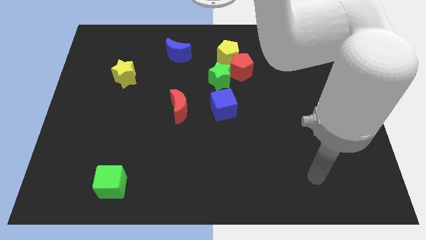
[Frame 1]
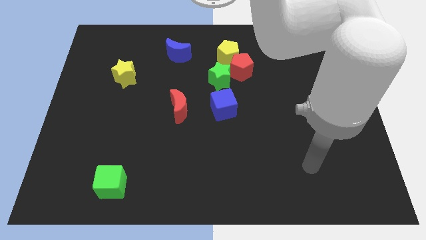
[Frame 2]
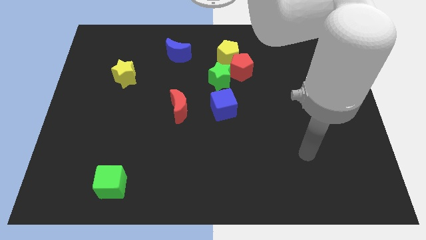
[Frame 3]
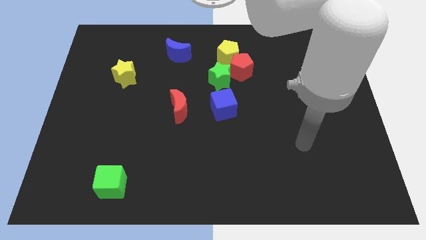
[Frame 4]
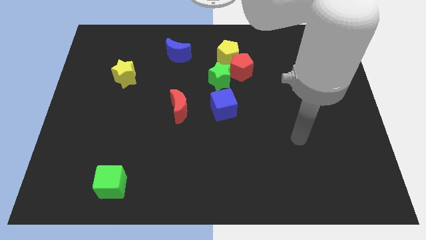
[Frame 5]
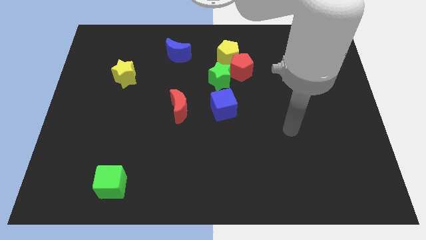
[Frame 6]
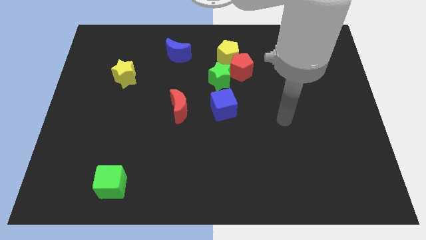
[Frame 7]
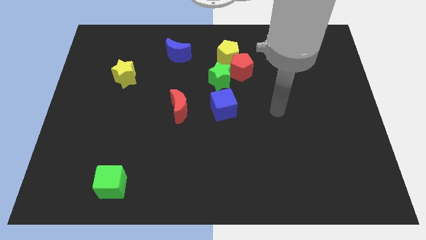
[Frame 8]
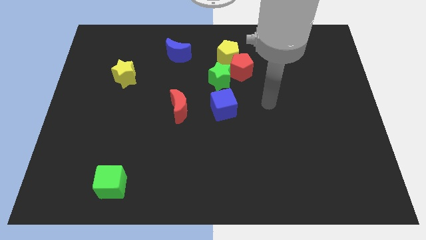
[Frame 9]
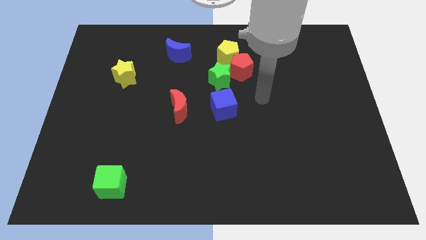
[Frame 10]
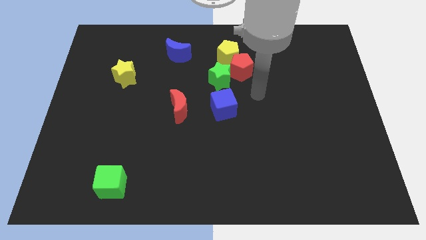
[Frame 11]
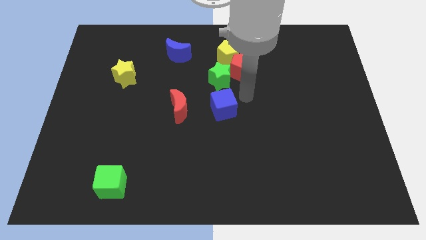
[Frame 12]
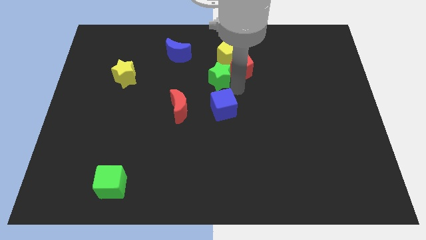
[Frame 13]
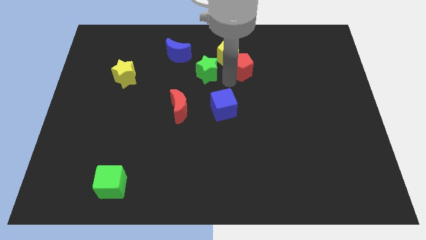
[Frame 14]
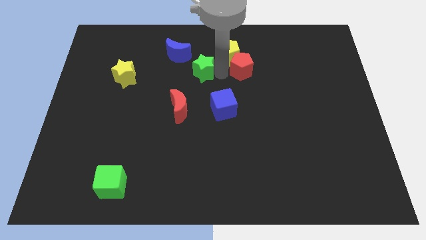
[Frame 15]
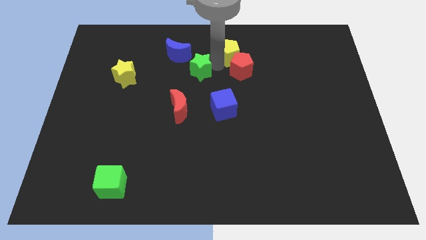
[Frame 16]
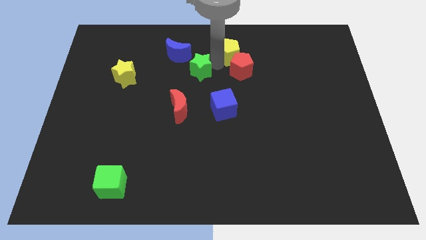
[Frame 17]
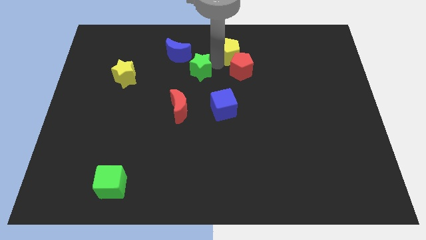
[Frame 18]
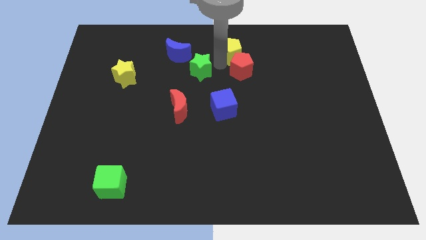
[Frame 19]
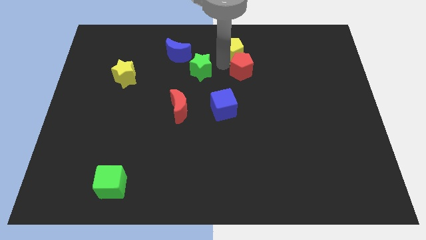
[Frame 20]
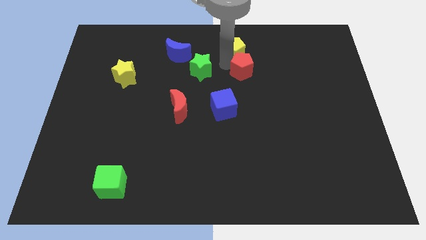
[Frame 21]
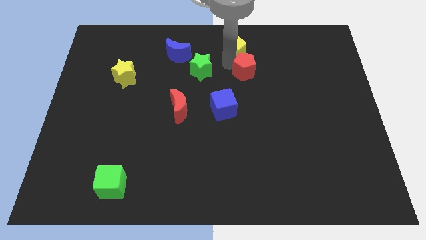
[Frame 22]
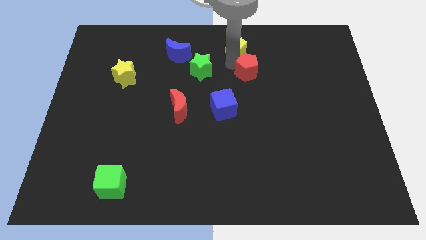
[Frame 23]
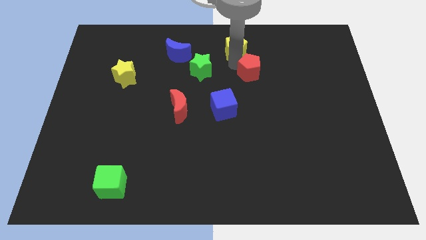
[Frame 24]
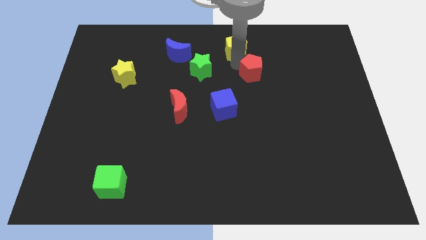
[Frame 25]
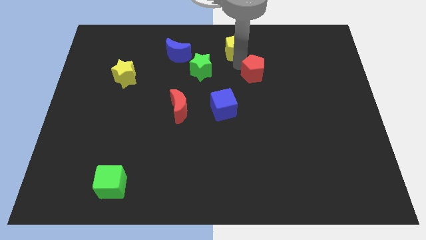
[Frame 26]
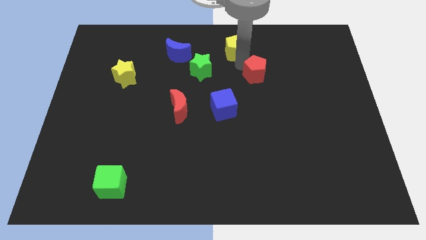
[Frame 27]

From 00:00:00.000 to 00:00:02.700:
move the red pentagon away from the yellow pentagon and green star

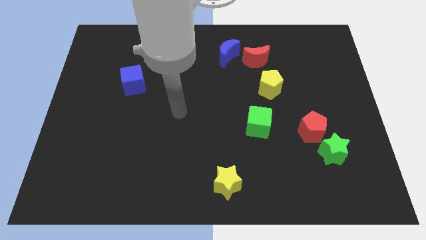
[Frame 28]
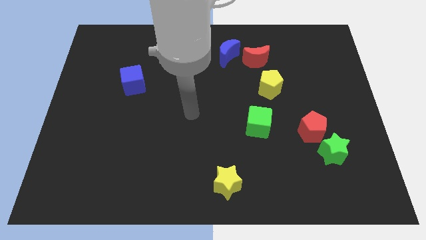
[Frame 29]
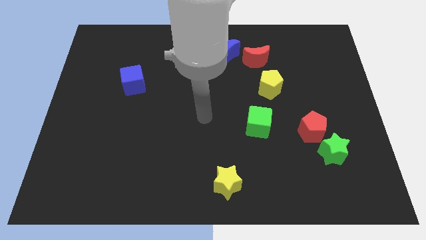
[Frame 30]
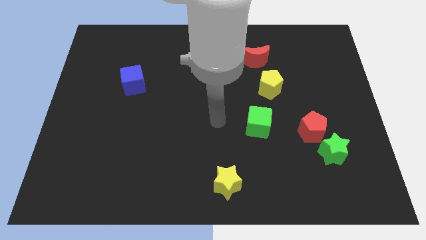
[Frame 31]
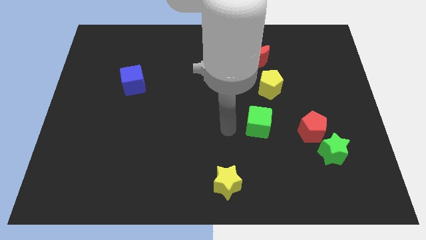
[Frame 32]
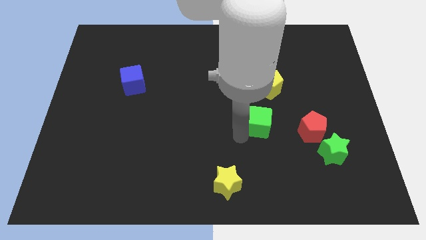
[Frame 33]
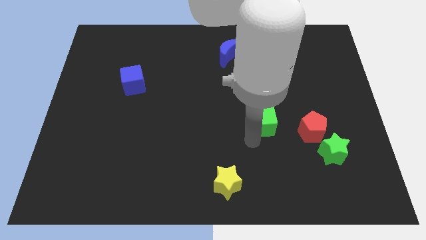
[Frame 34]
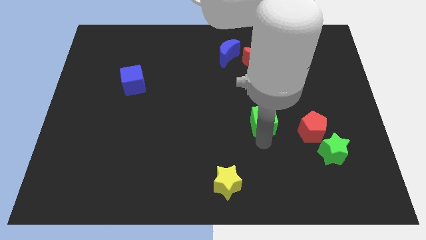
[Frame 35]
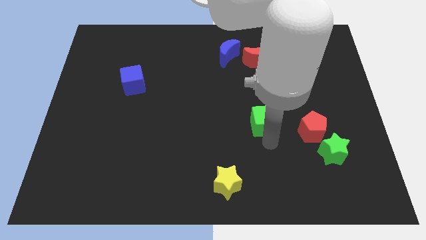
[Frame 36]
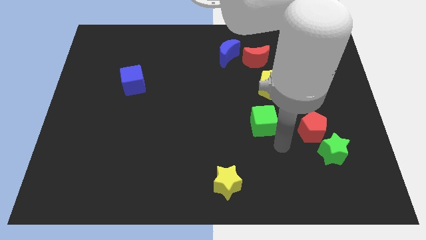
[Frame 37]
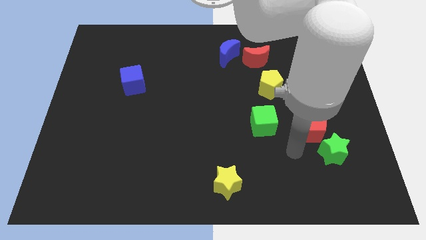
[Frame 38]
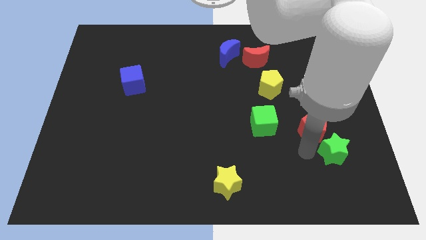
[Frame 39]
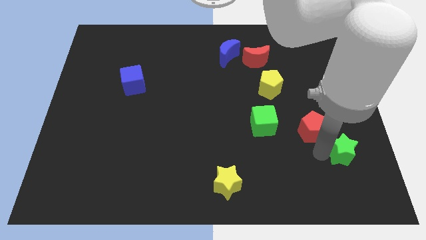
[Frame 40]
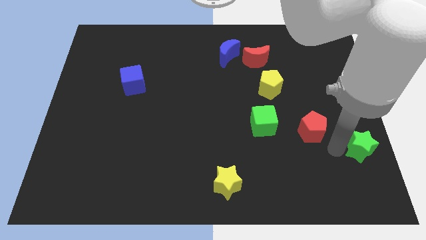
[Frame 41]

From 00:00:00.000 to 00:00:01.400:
move the red pentagon away from the green star

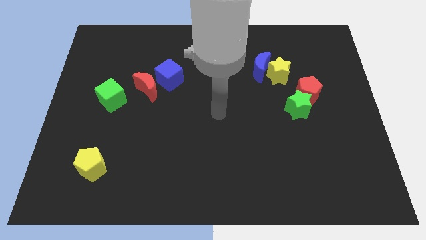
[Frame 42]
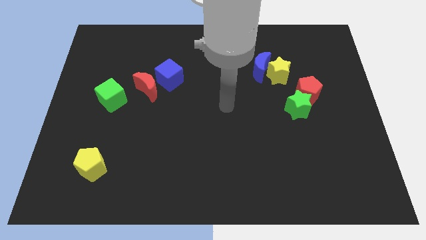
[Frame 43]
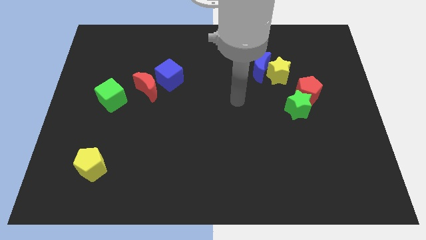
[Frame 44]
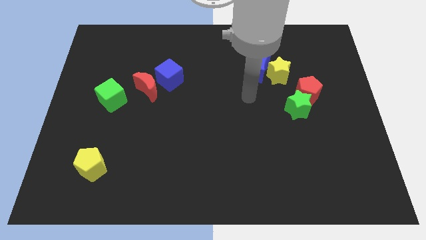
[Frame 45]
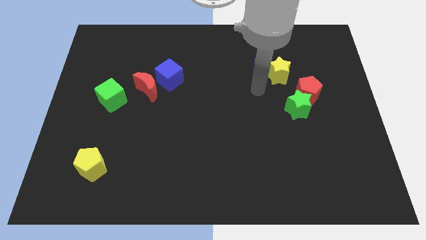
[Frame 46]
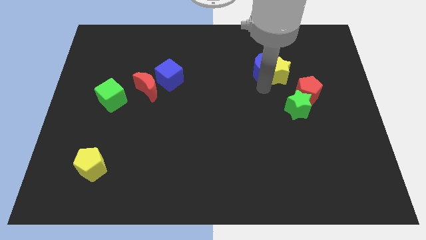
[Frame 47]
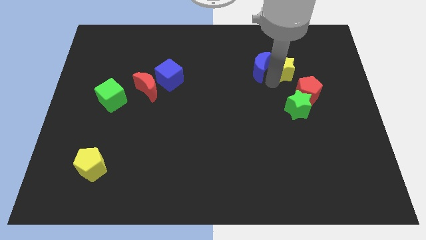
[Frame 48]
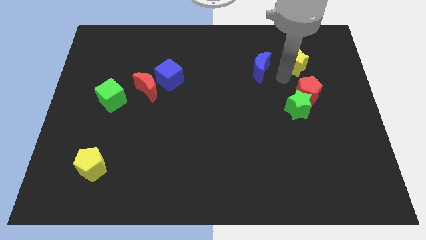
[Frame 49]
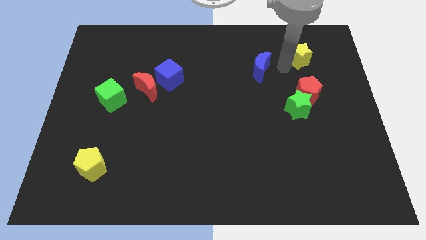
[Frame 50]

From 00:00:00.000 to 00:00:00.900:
move the blue moon away from the yellow star

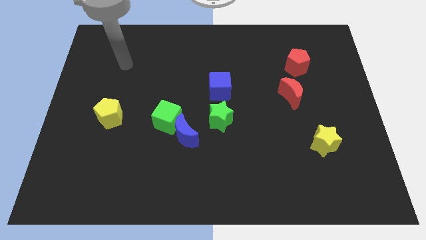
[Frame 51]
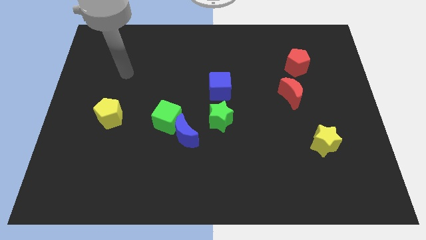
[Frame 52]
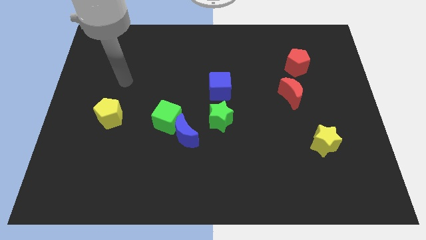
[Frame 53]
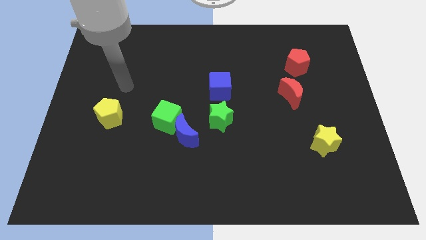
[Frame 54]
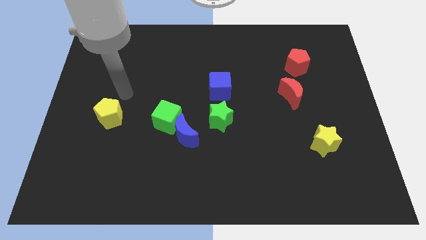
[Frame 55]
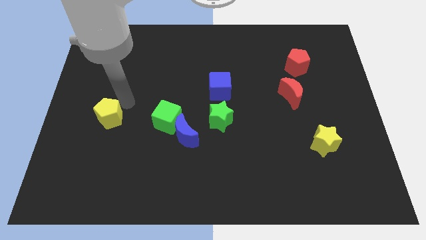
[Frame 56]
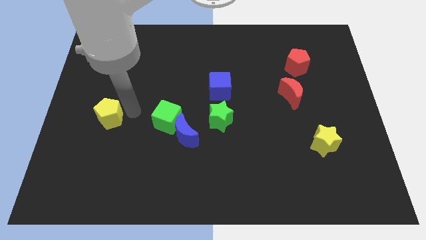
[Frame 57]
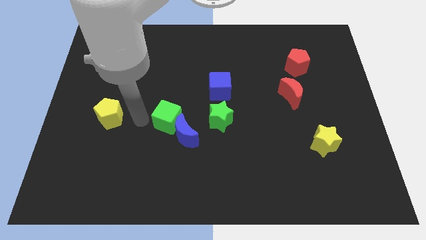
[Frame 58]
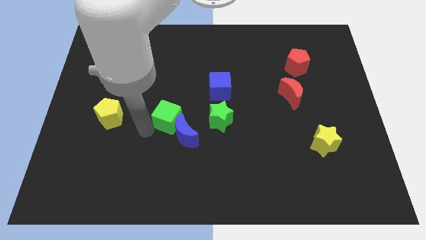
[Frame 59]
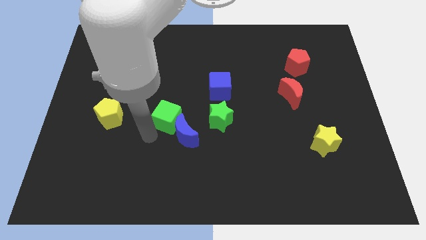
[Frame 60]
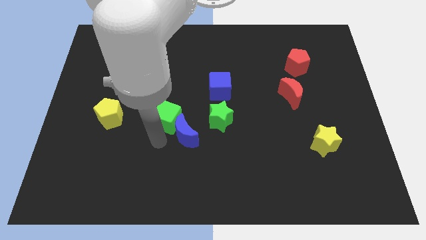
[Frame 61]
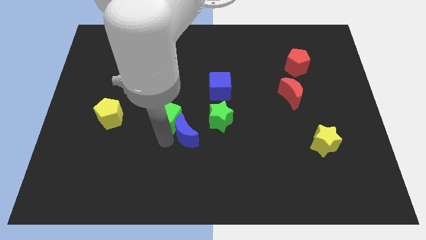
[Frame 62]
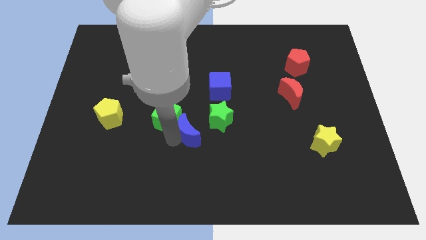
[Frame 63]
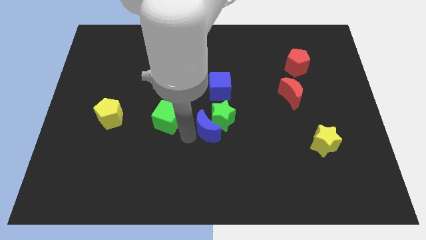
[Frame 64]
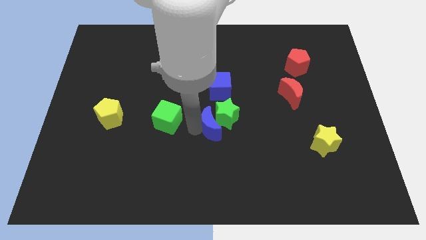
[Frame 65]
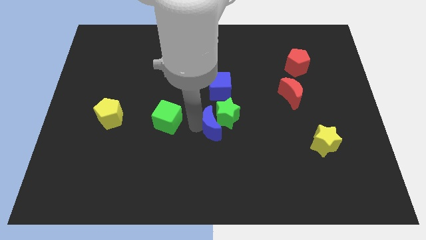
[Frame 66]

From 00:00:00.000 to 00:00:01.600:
separate the green cube from the blue moon

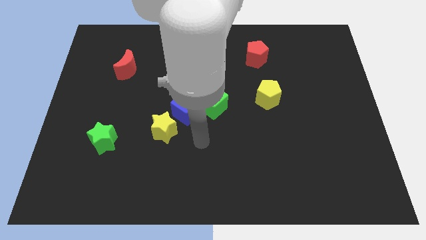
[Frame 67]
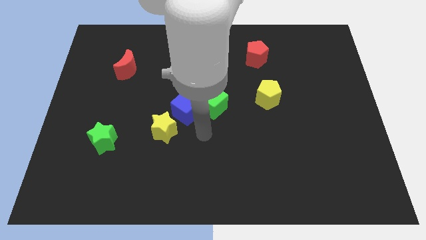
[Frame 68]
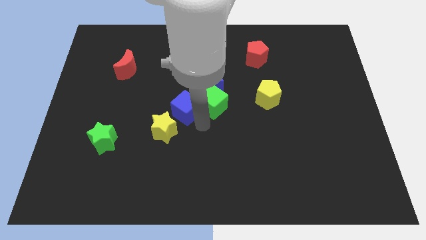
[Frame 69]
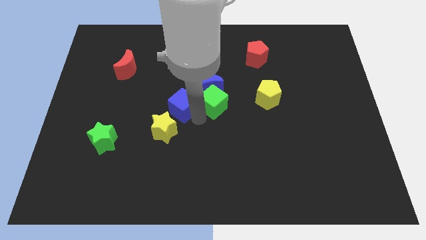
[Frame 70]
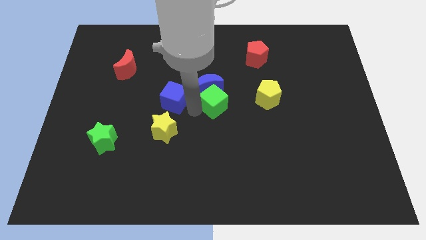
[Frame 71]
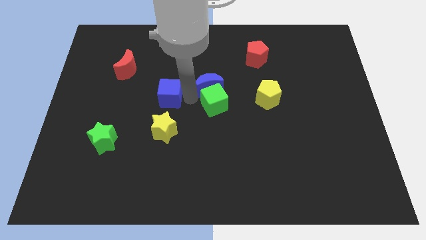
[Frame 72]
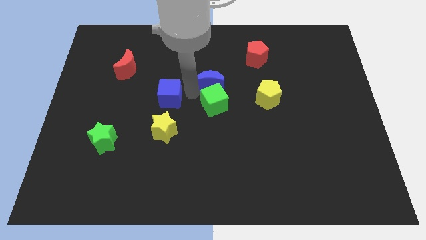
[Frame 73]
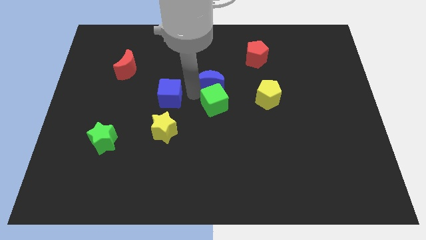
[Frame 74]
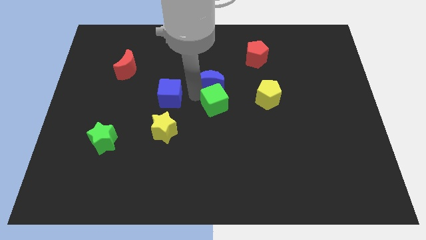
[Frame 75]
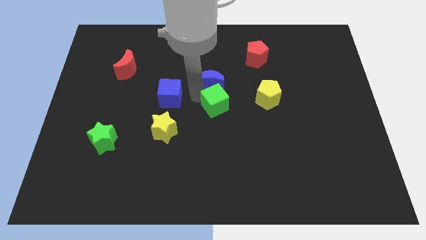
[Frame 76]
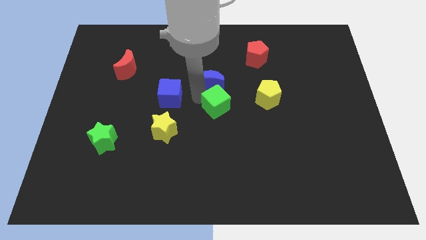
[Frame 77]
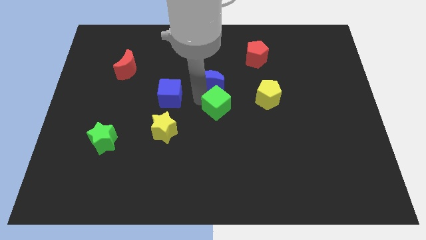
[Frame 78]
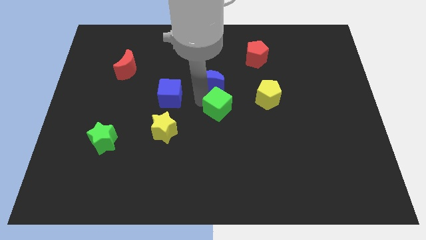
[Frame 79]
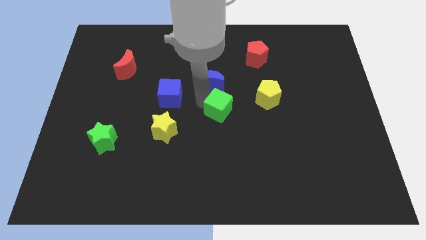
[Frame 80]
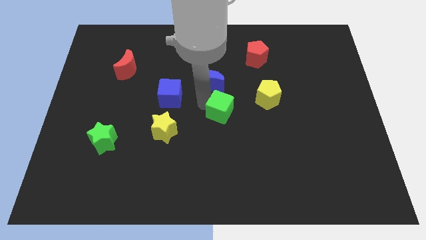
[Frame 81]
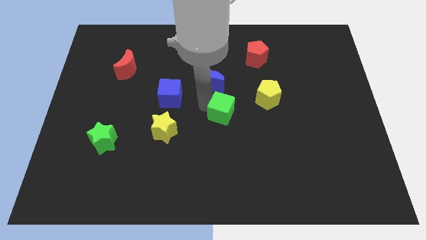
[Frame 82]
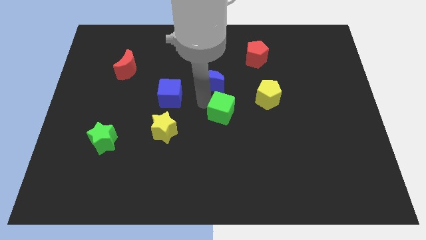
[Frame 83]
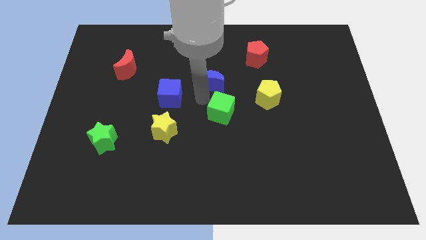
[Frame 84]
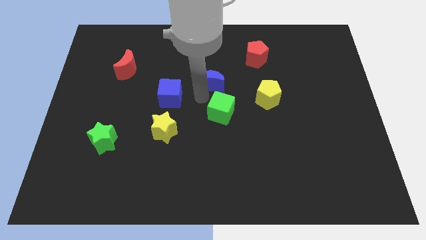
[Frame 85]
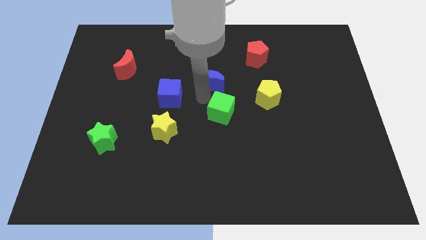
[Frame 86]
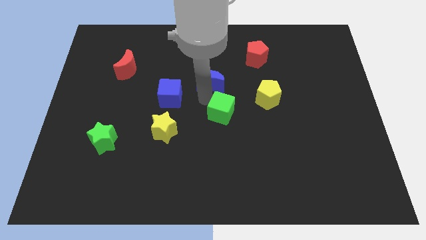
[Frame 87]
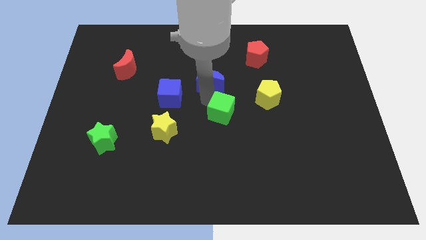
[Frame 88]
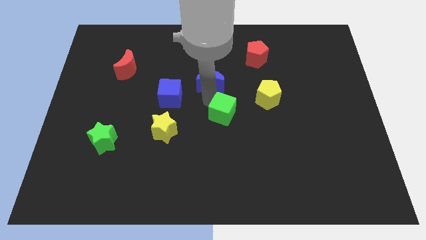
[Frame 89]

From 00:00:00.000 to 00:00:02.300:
move the green cube away from the blue moon and blue cube

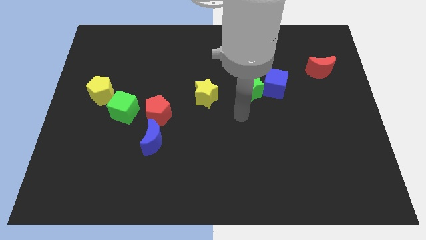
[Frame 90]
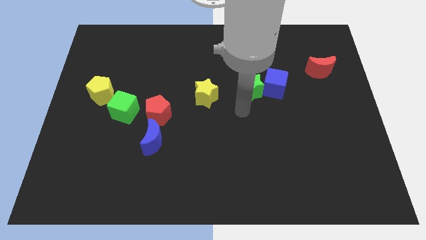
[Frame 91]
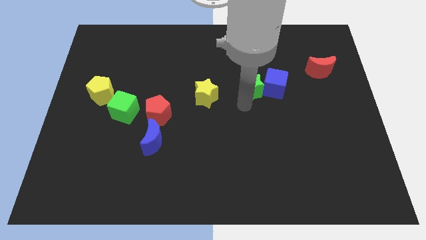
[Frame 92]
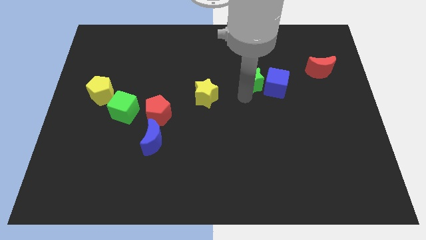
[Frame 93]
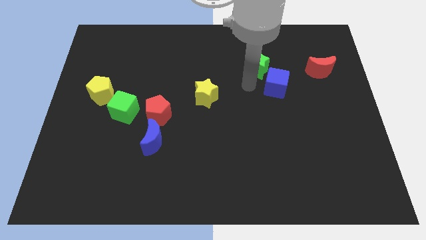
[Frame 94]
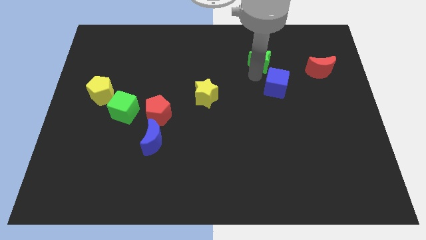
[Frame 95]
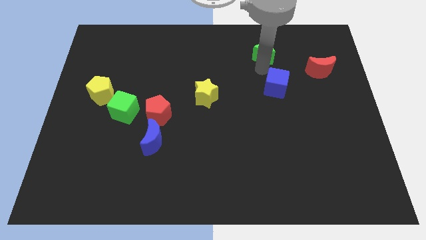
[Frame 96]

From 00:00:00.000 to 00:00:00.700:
pull the blue cube apart from the green star
